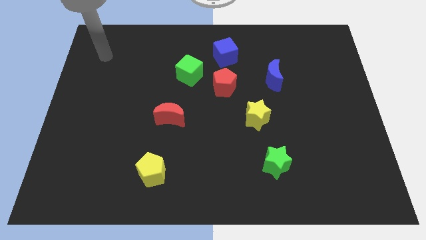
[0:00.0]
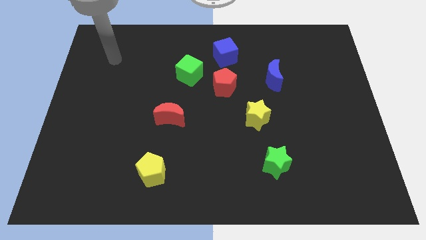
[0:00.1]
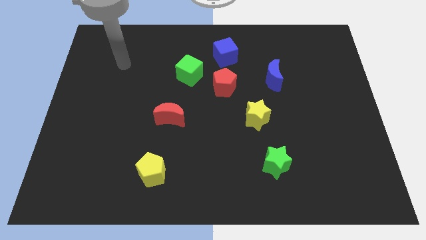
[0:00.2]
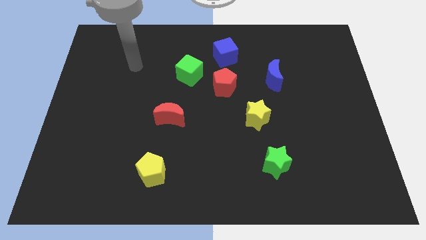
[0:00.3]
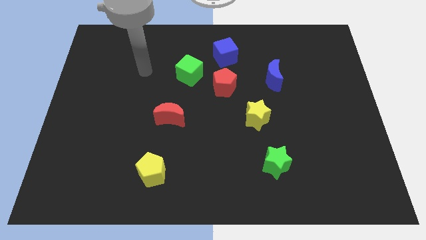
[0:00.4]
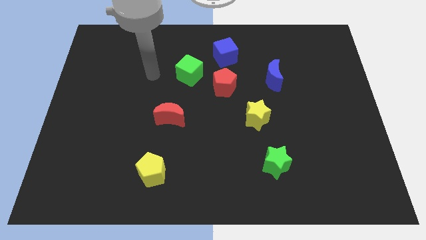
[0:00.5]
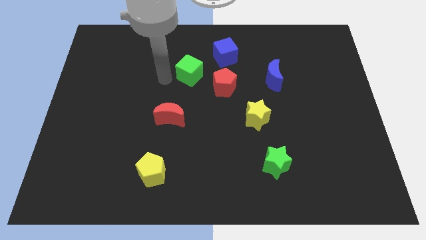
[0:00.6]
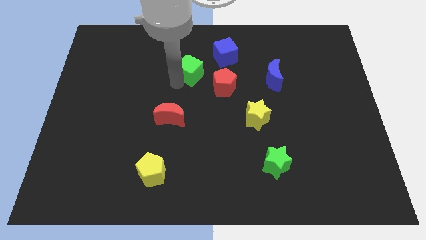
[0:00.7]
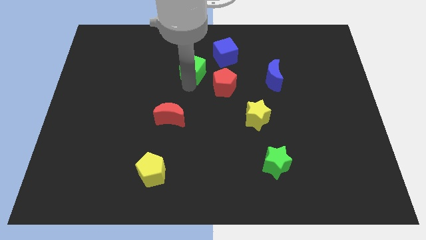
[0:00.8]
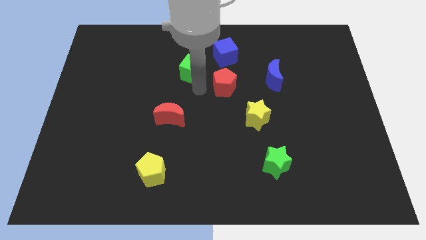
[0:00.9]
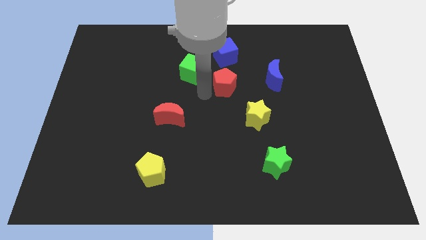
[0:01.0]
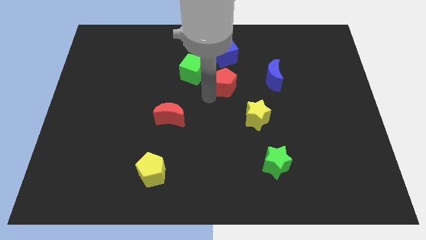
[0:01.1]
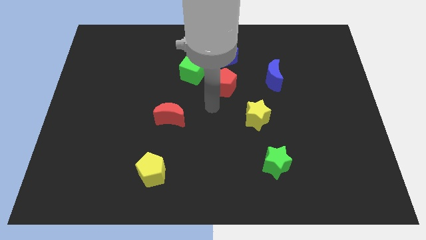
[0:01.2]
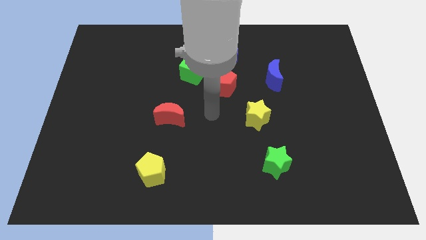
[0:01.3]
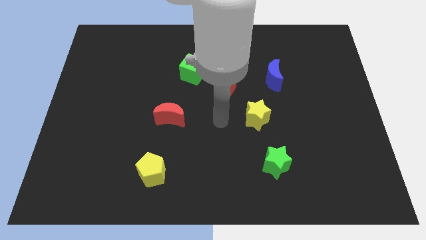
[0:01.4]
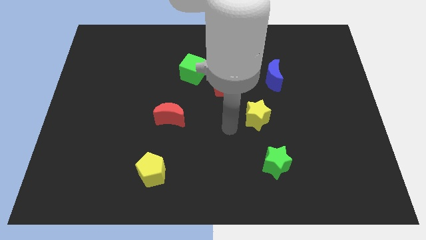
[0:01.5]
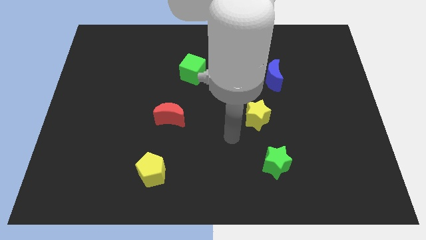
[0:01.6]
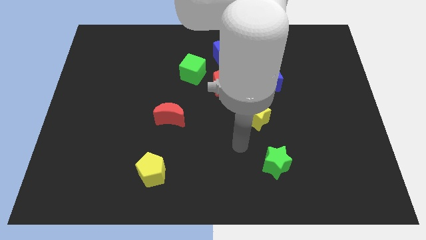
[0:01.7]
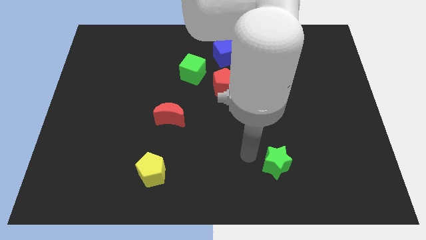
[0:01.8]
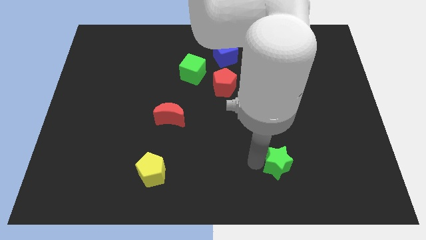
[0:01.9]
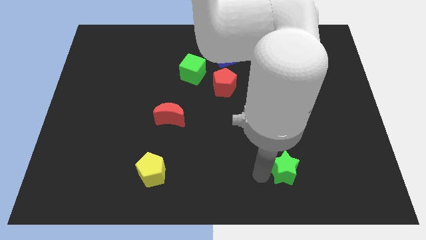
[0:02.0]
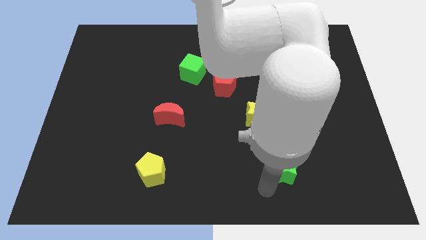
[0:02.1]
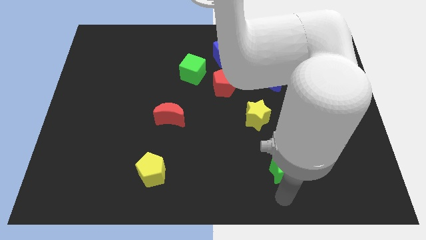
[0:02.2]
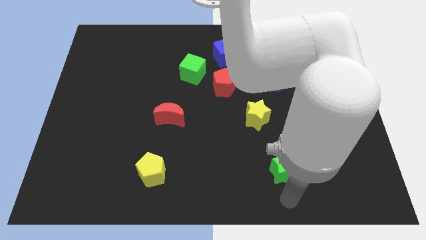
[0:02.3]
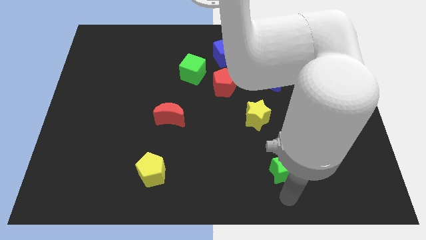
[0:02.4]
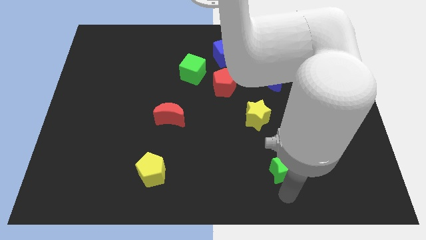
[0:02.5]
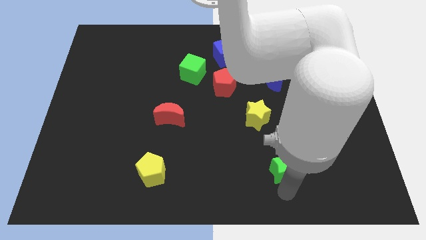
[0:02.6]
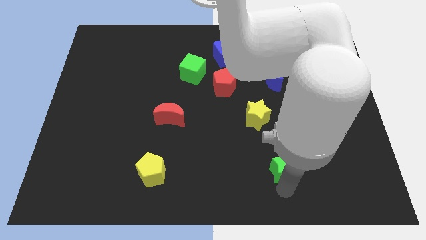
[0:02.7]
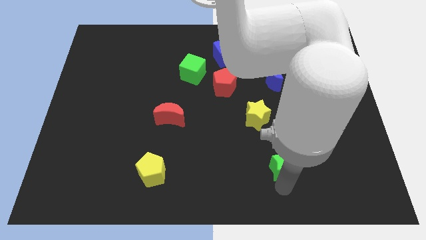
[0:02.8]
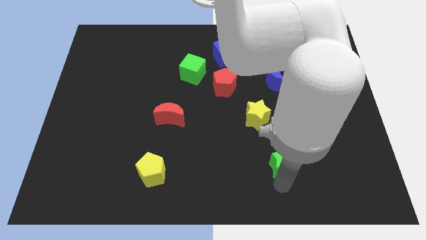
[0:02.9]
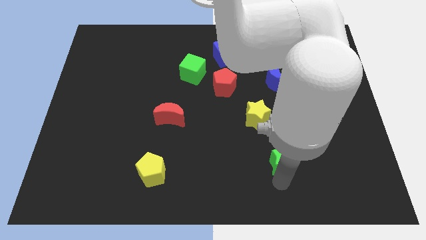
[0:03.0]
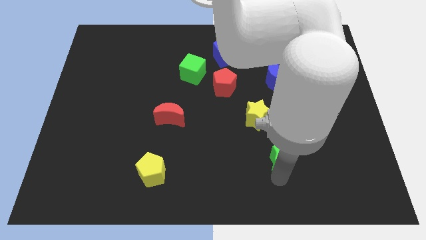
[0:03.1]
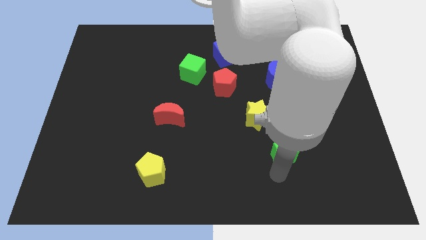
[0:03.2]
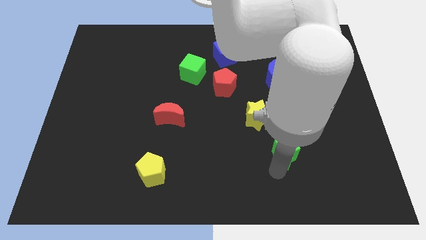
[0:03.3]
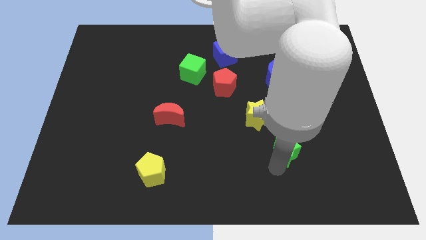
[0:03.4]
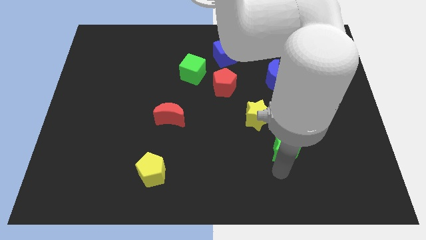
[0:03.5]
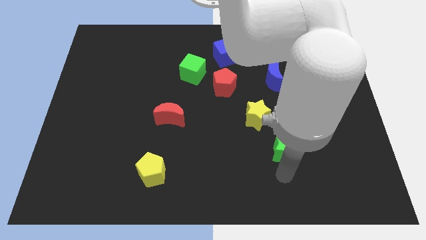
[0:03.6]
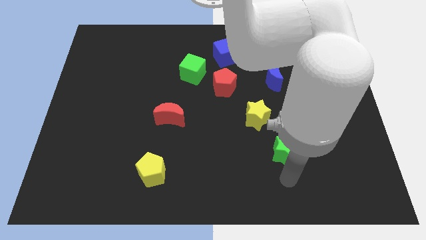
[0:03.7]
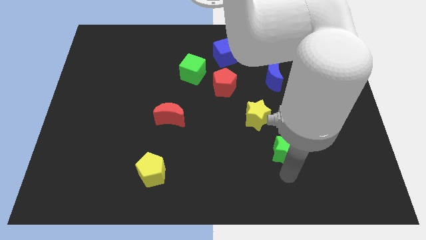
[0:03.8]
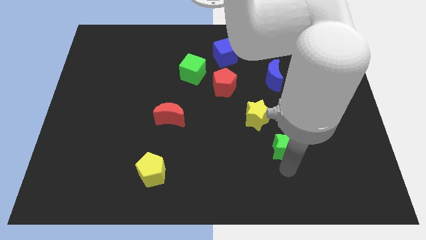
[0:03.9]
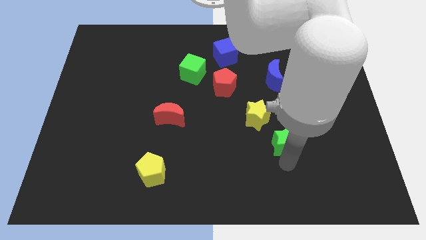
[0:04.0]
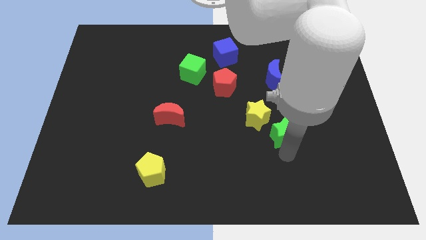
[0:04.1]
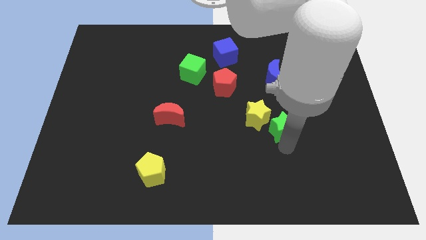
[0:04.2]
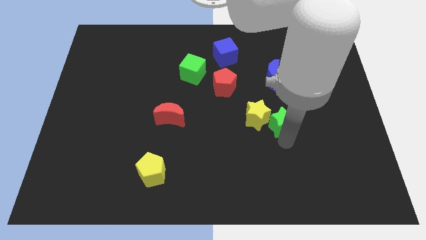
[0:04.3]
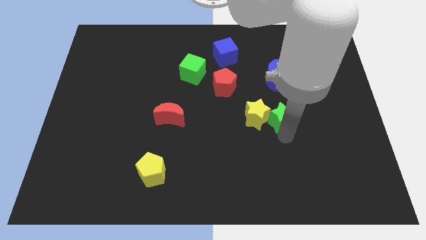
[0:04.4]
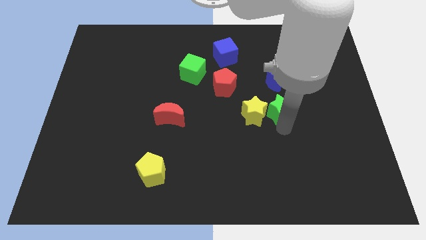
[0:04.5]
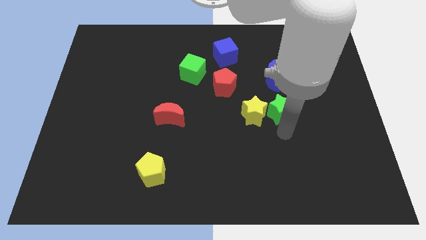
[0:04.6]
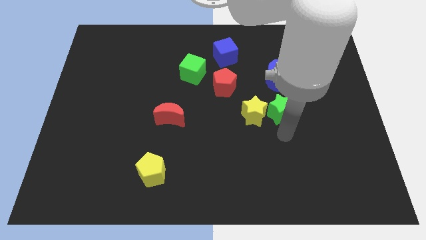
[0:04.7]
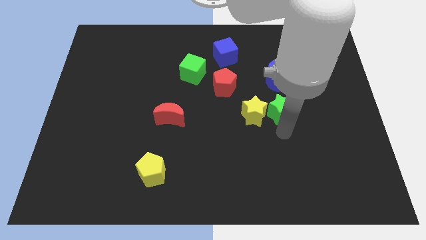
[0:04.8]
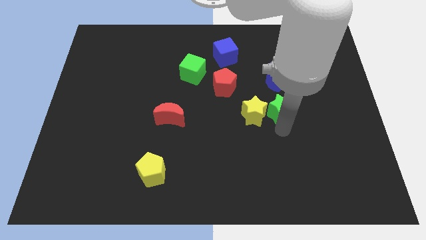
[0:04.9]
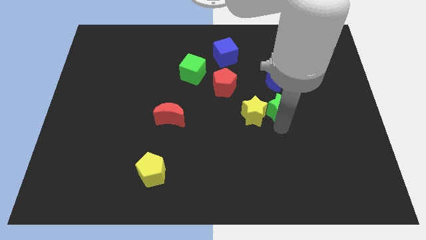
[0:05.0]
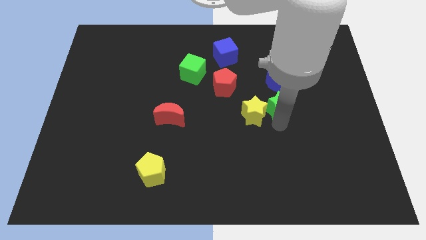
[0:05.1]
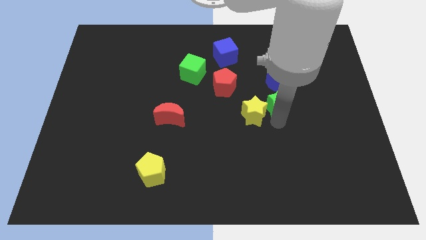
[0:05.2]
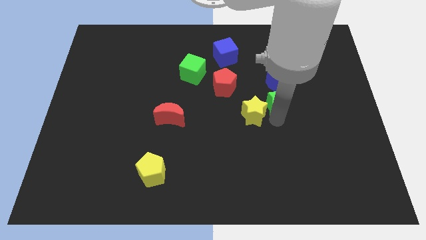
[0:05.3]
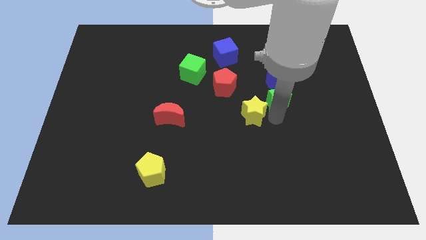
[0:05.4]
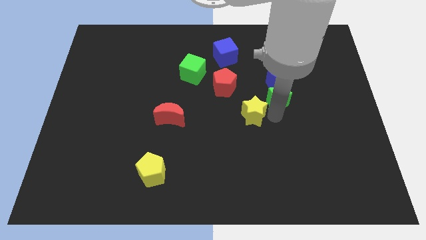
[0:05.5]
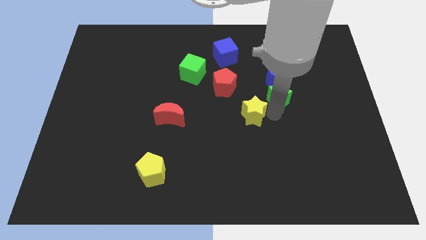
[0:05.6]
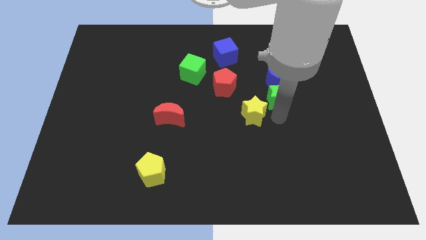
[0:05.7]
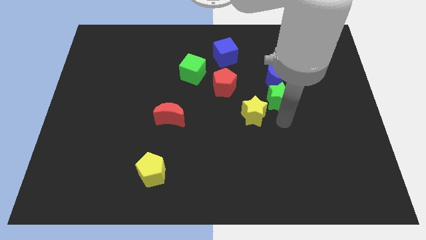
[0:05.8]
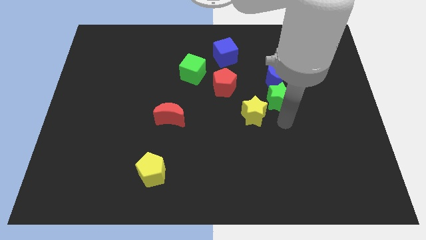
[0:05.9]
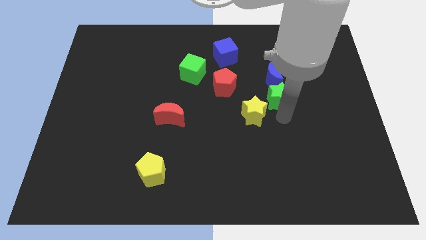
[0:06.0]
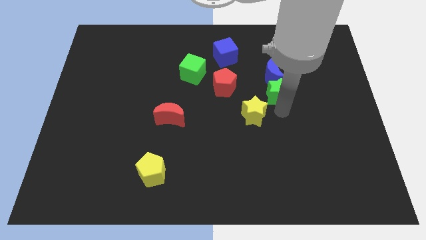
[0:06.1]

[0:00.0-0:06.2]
move the green star towards the blue moon

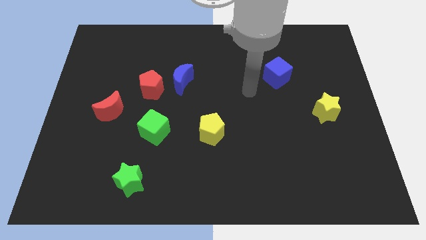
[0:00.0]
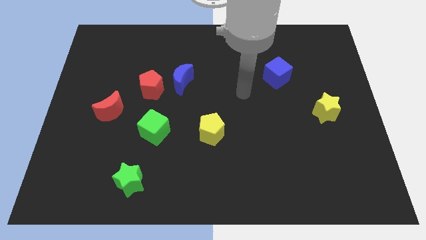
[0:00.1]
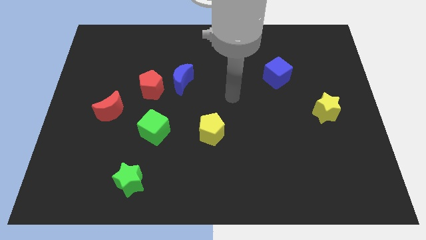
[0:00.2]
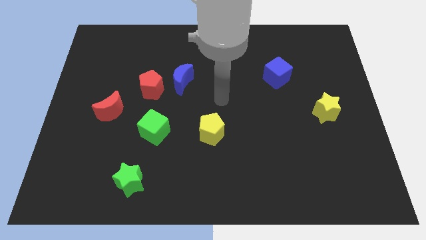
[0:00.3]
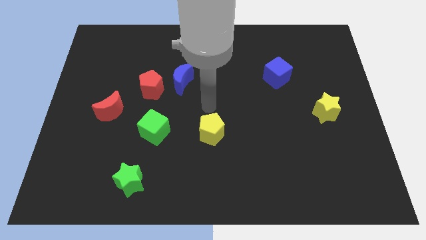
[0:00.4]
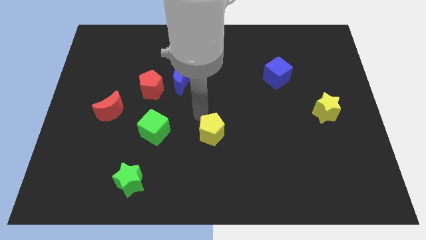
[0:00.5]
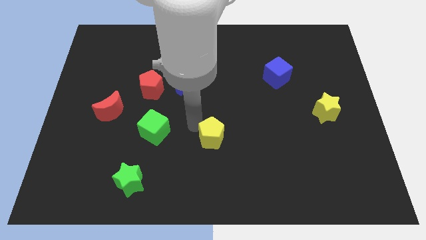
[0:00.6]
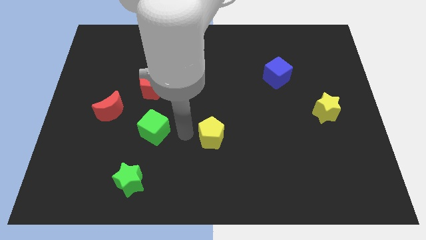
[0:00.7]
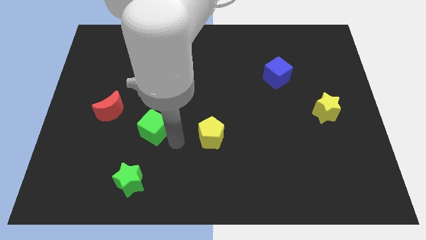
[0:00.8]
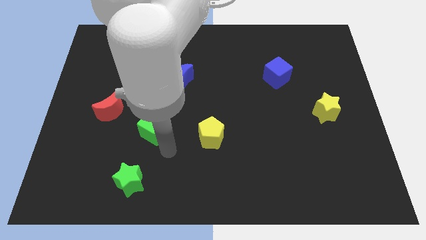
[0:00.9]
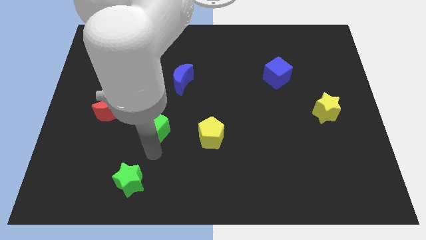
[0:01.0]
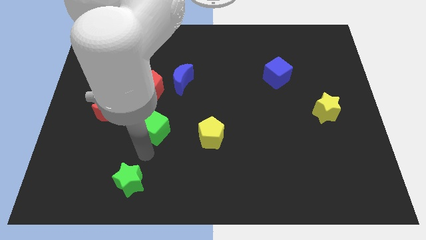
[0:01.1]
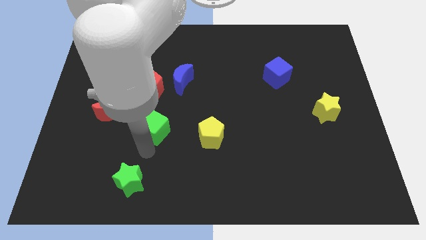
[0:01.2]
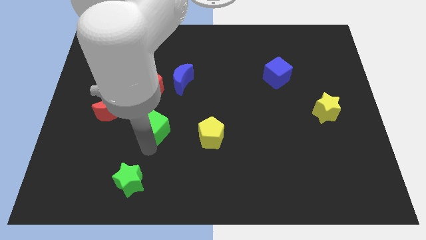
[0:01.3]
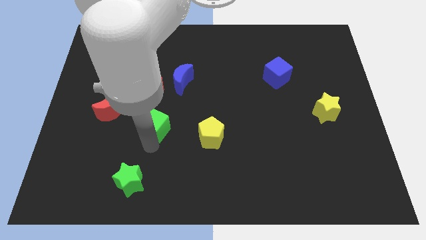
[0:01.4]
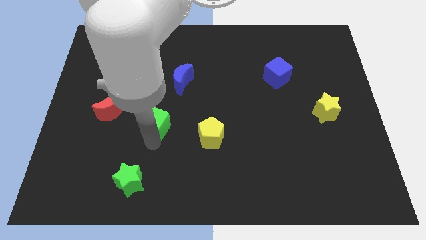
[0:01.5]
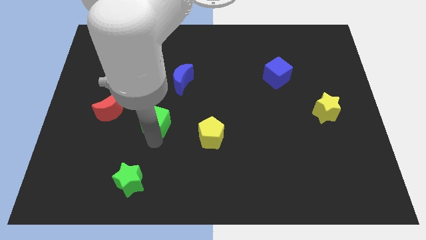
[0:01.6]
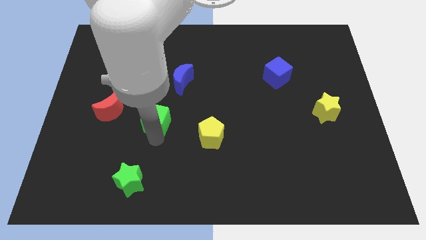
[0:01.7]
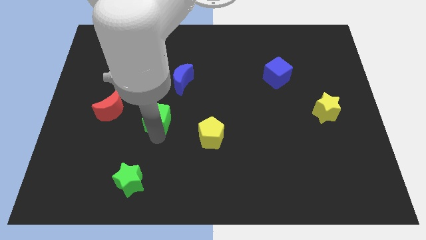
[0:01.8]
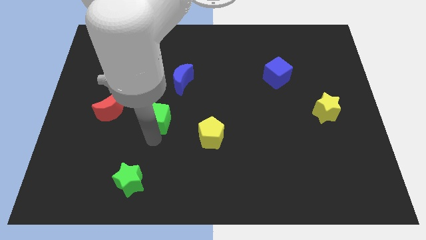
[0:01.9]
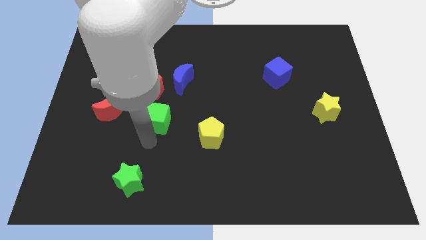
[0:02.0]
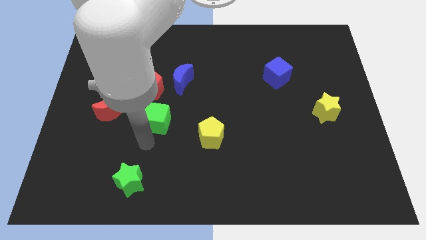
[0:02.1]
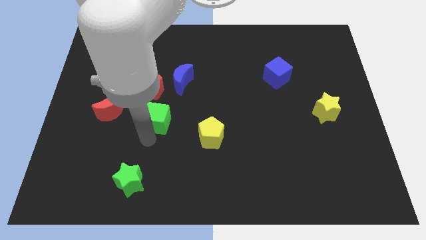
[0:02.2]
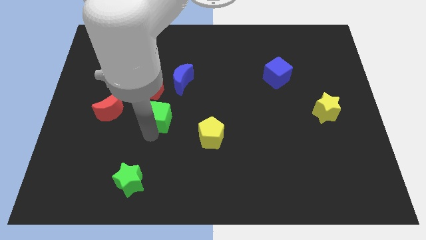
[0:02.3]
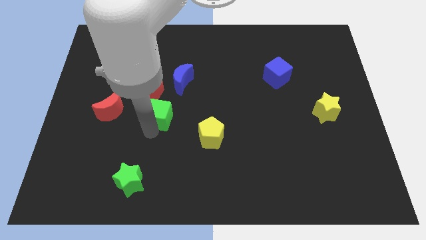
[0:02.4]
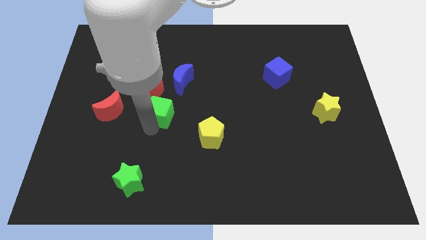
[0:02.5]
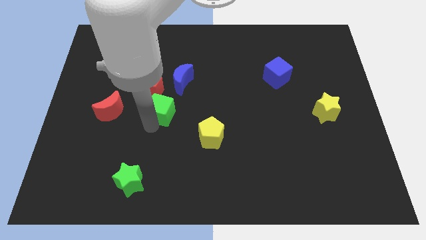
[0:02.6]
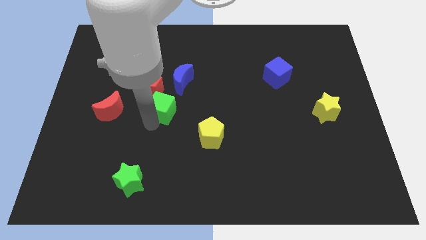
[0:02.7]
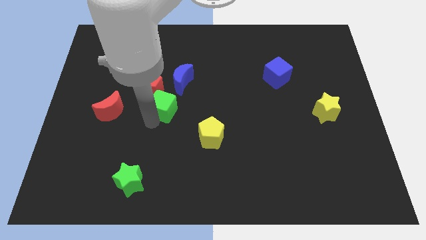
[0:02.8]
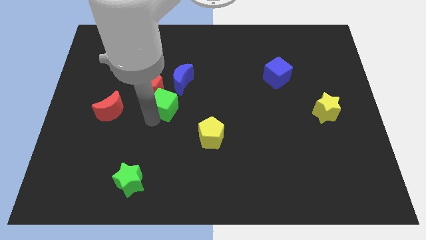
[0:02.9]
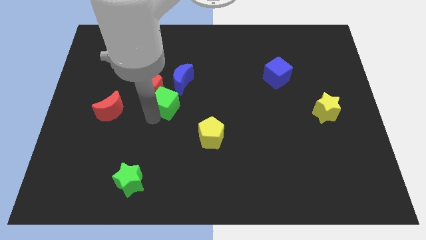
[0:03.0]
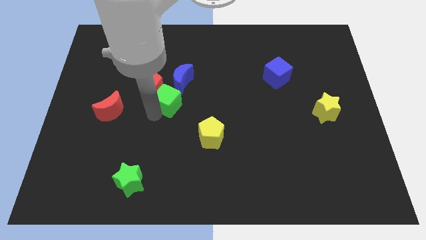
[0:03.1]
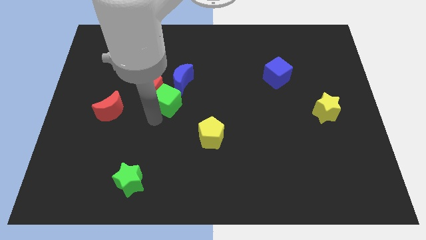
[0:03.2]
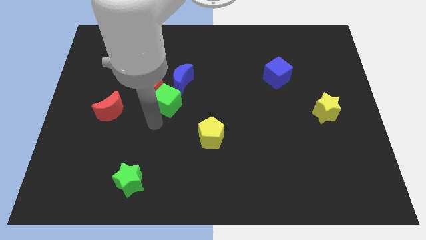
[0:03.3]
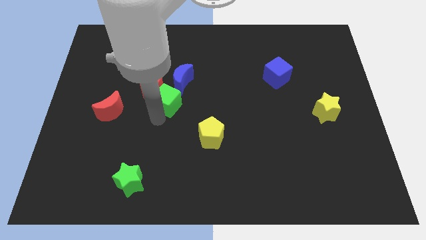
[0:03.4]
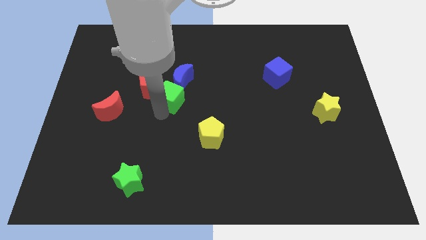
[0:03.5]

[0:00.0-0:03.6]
slide the green cube to the blue moon
